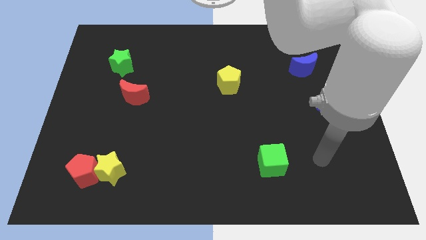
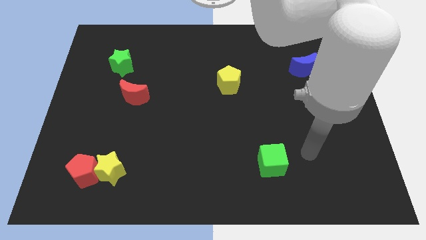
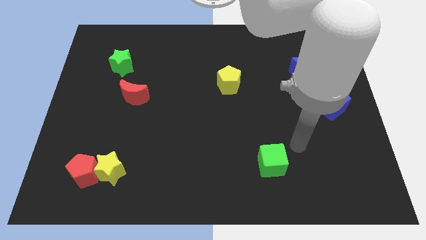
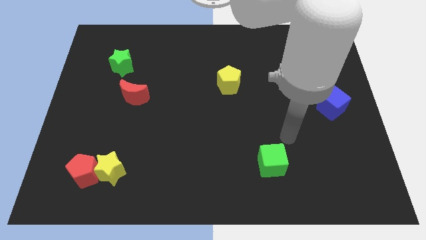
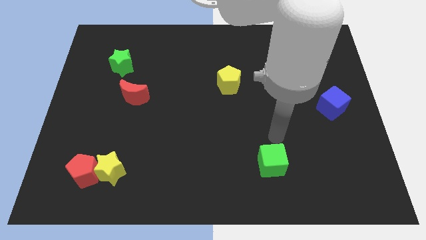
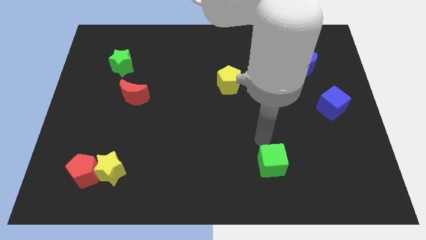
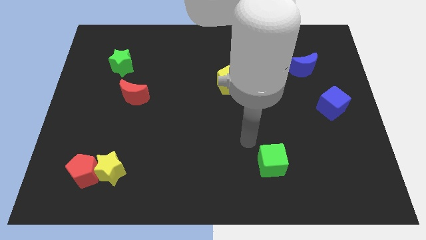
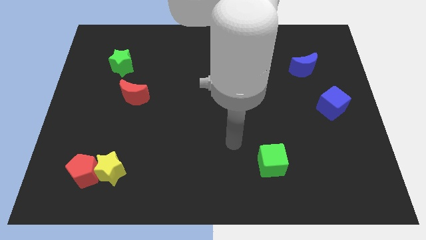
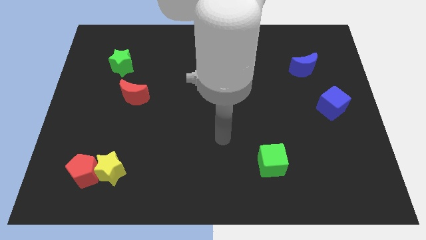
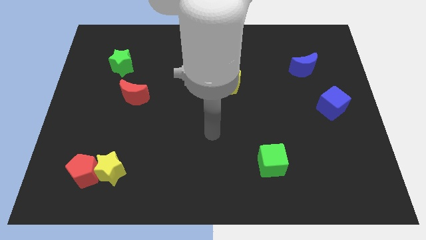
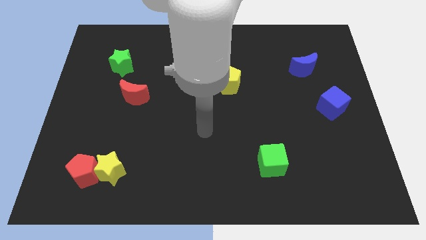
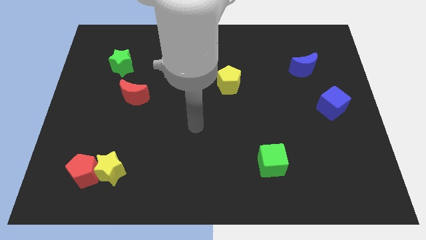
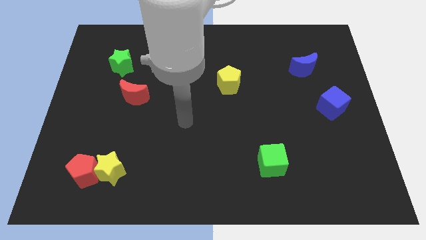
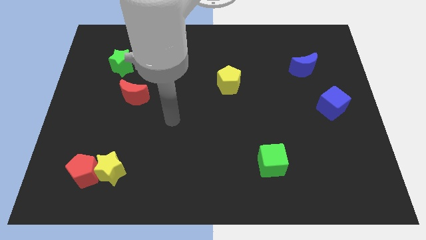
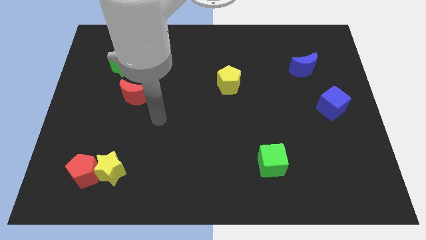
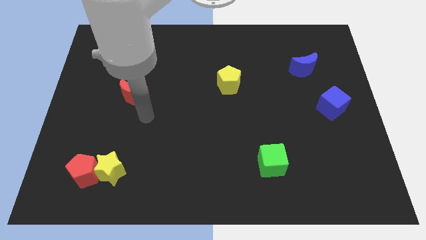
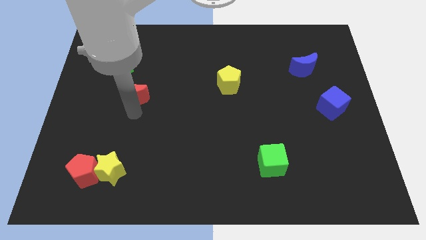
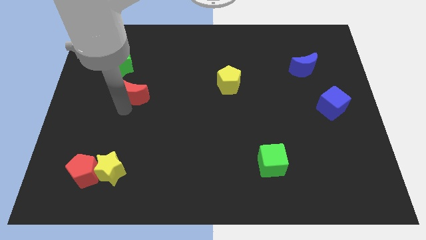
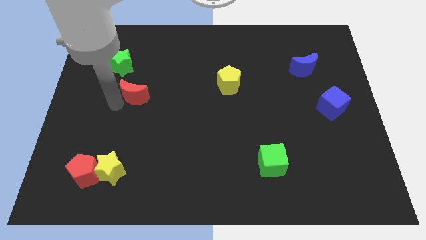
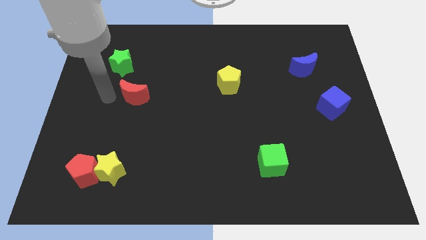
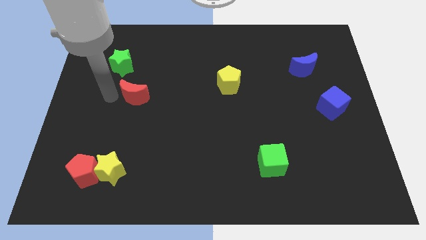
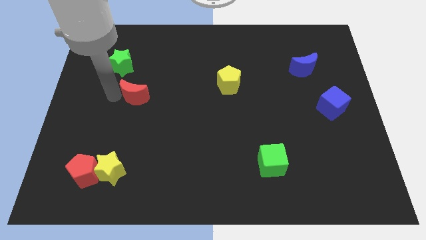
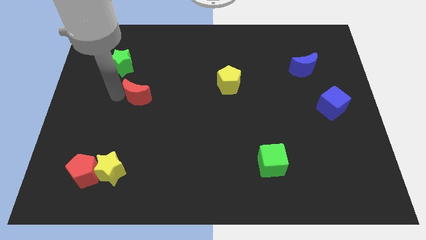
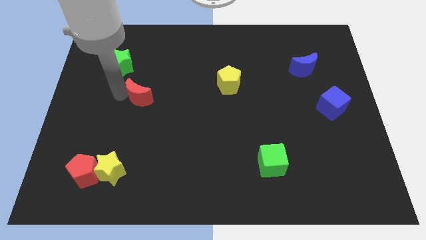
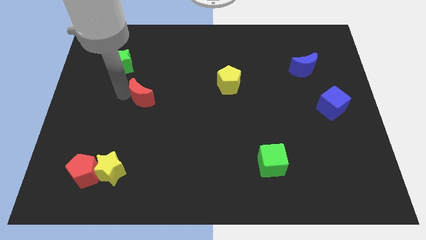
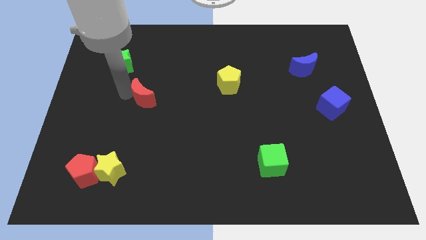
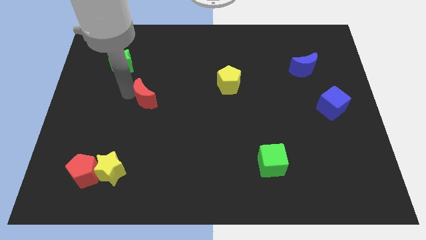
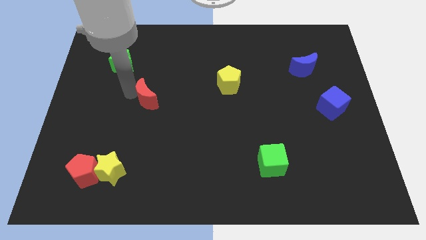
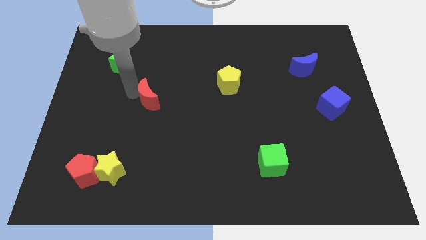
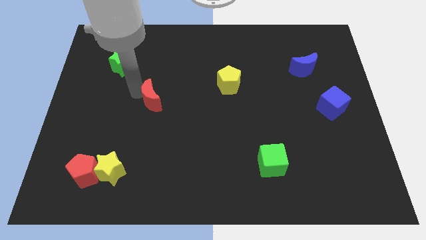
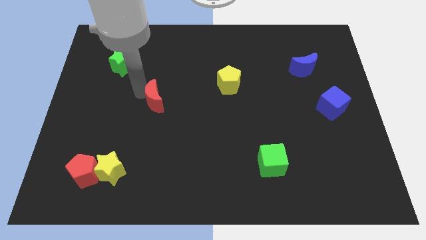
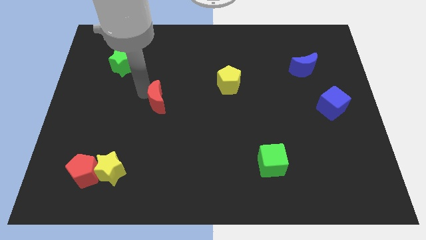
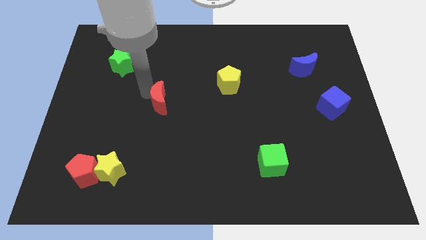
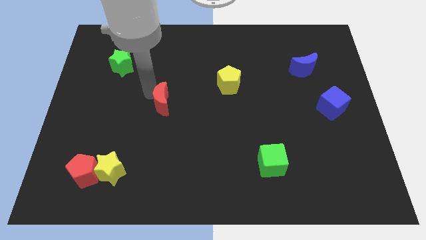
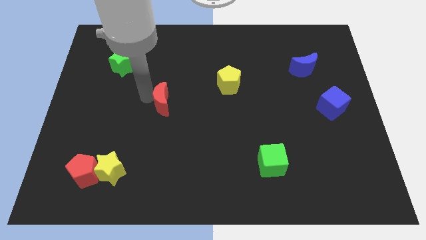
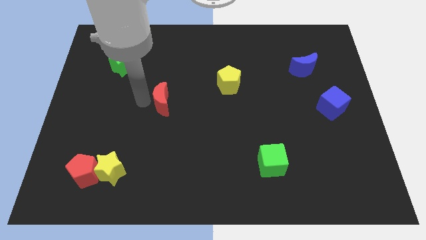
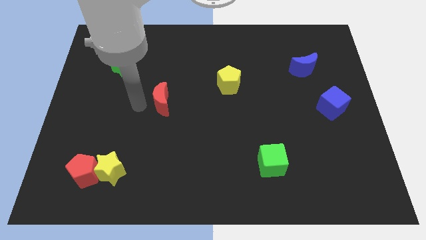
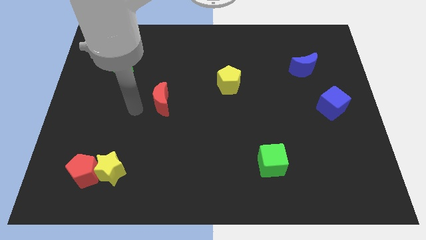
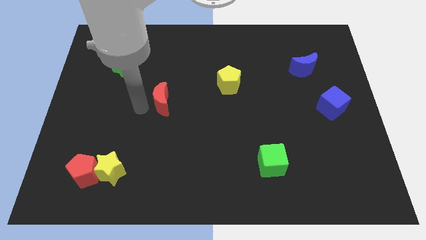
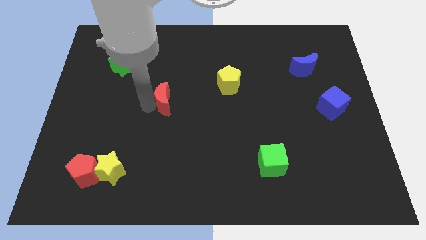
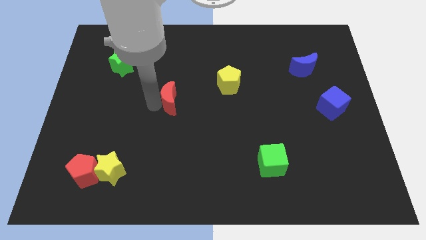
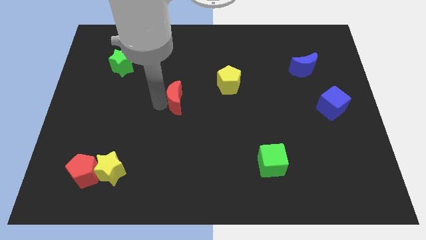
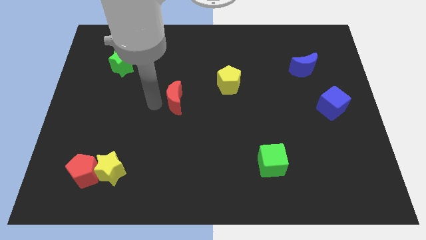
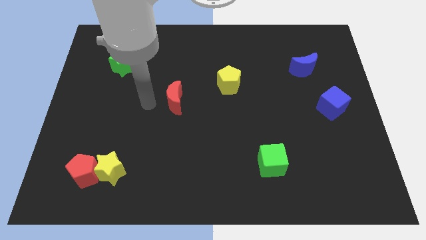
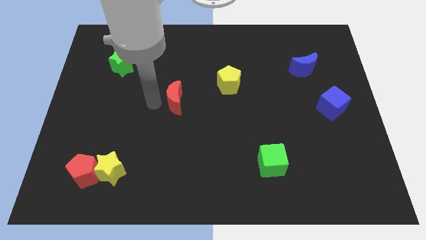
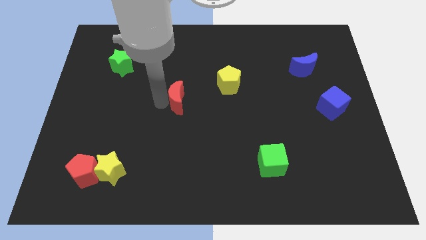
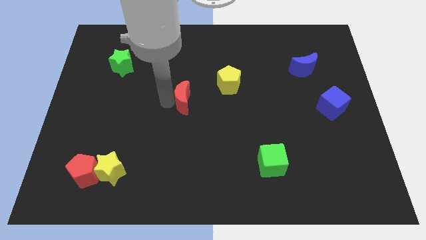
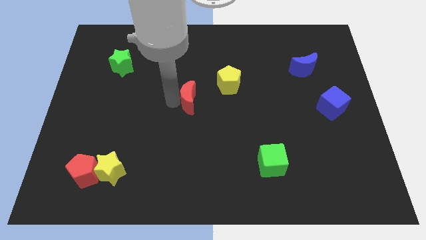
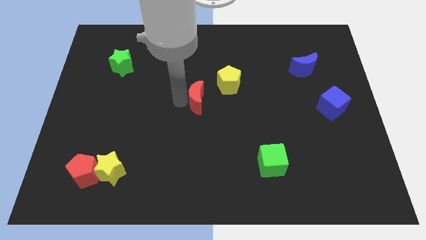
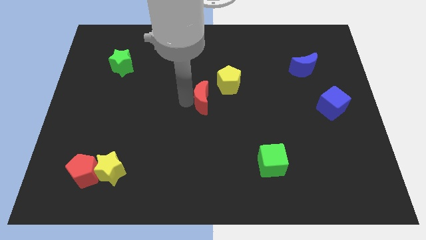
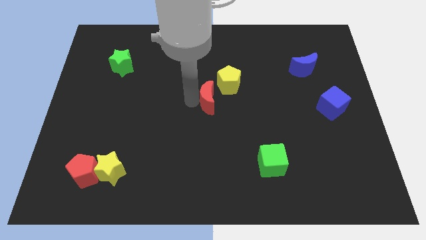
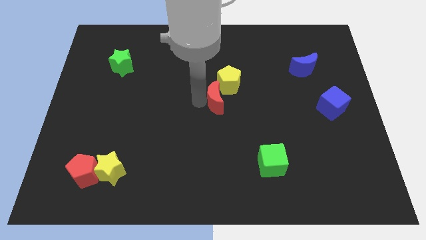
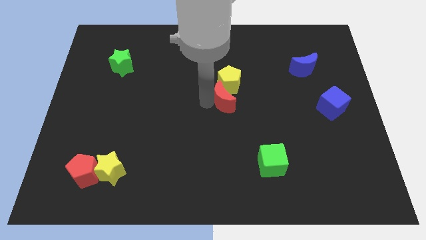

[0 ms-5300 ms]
push the red moon right

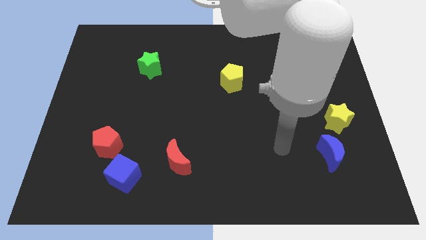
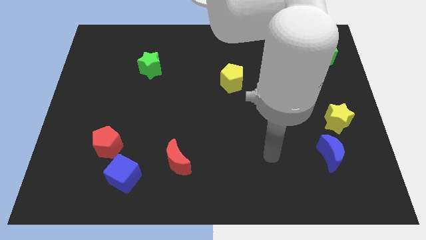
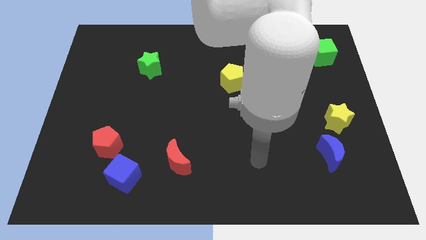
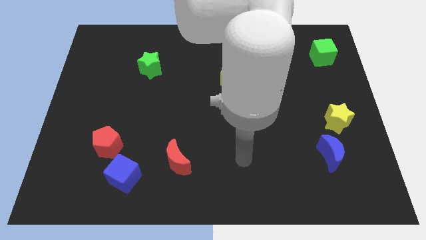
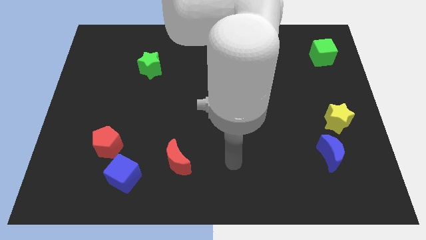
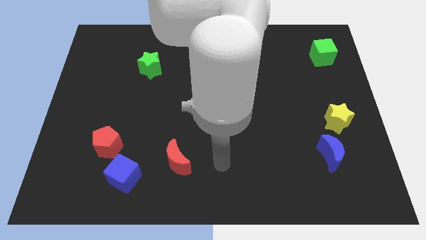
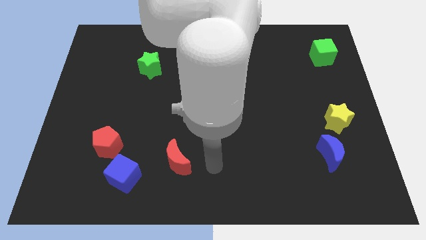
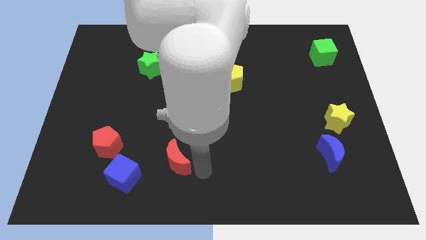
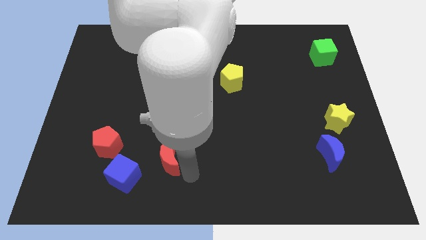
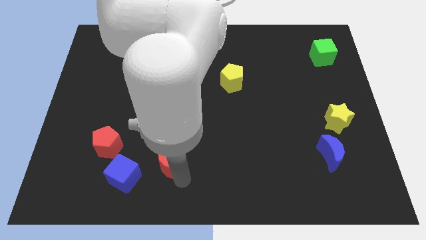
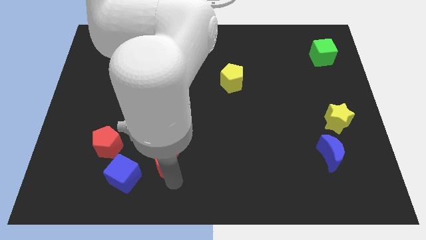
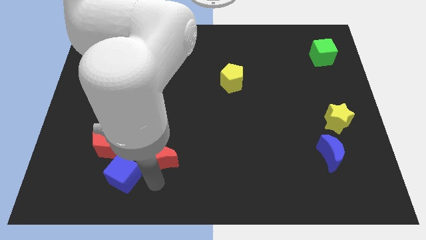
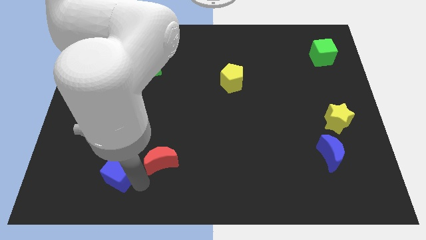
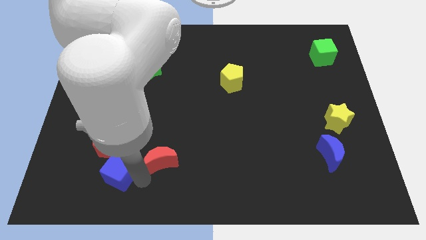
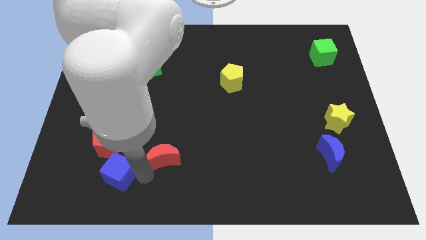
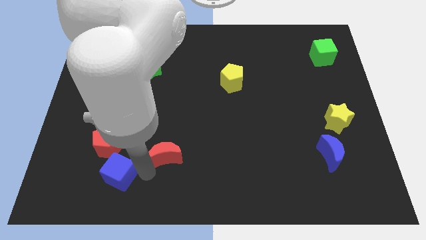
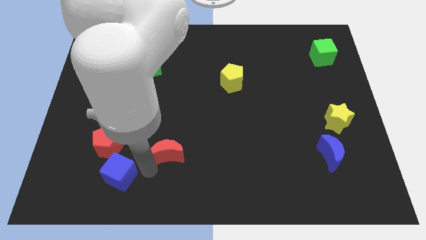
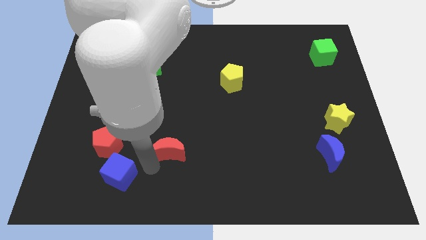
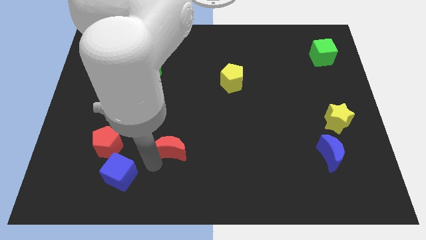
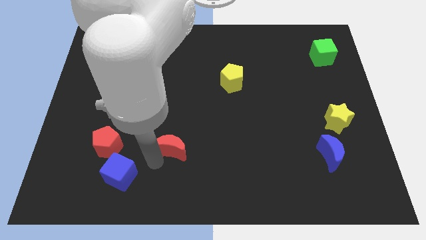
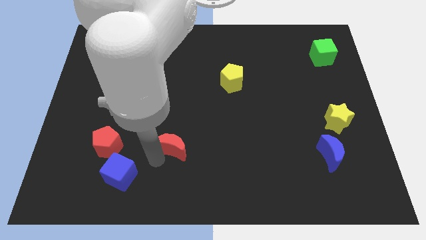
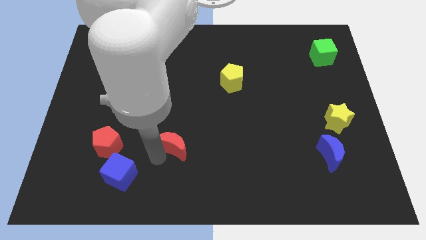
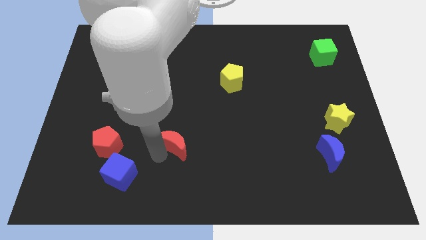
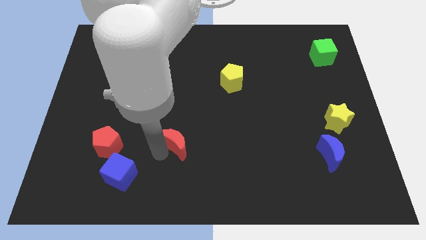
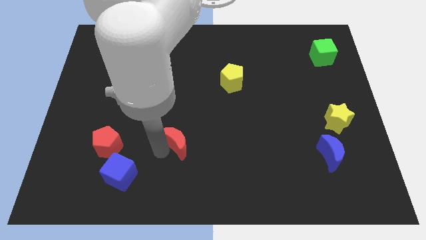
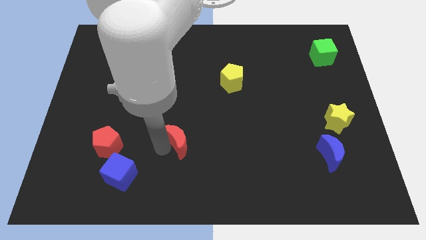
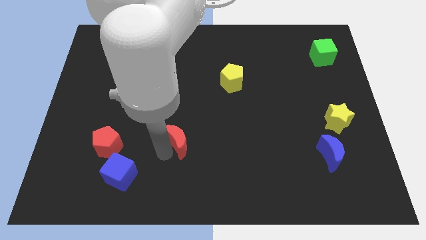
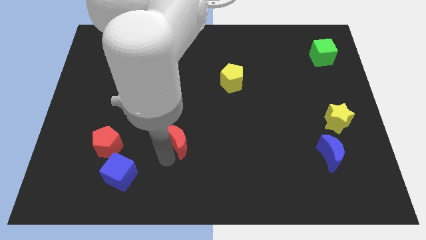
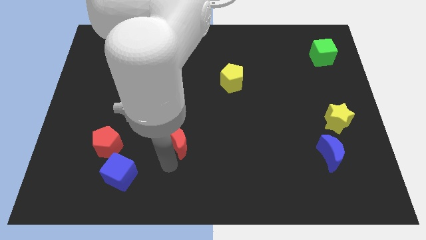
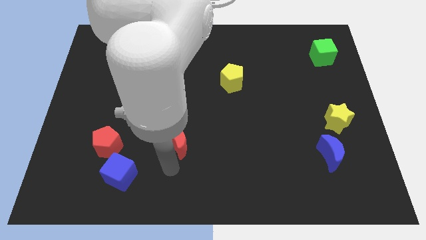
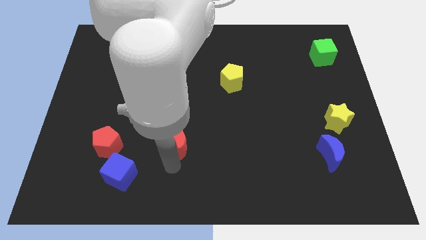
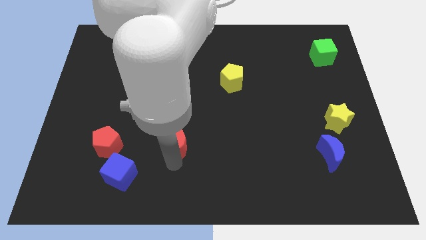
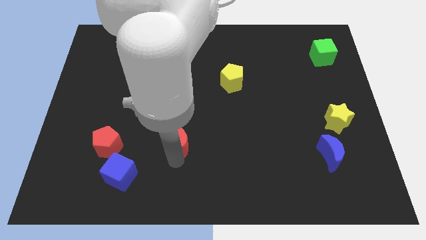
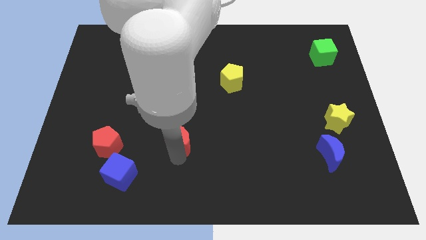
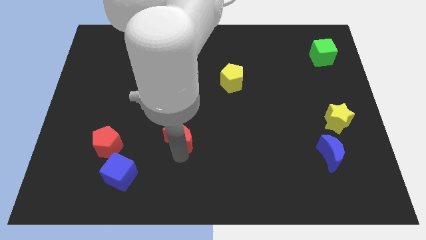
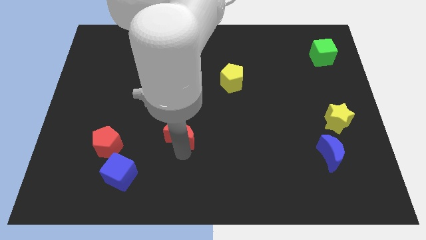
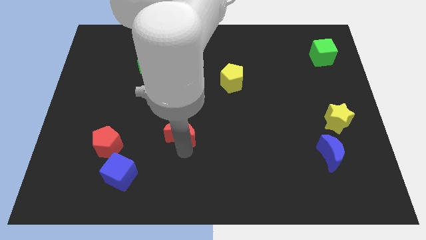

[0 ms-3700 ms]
move the red moon up slightly
